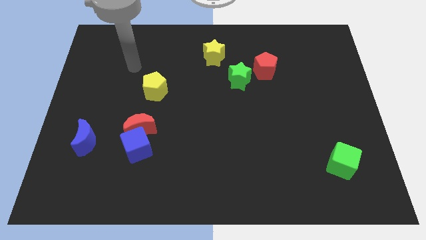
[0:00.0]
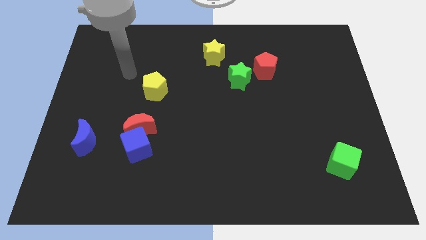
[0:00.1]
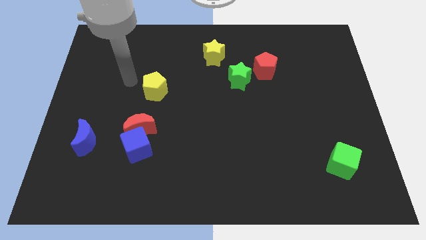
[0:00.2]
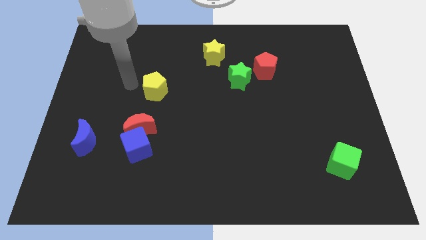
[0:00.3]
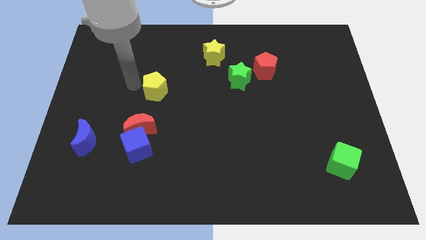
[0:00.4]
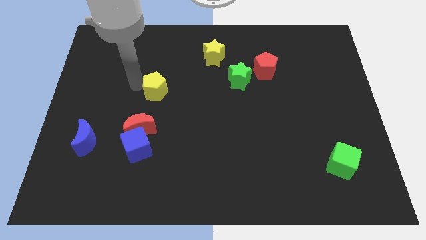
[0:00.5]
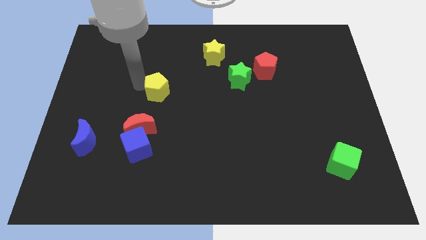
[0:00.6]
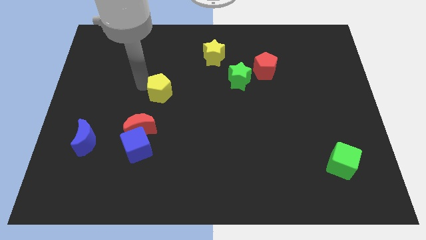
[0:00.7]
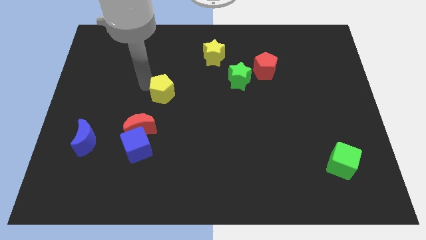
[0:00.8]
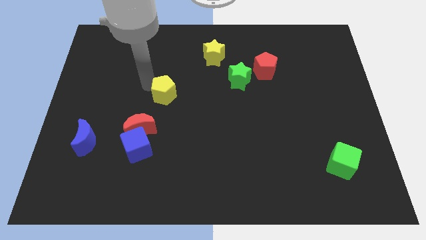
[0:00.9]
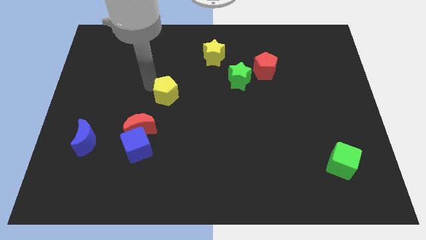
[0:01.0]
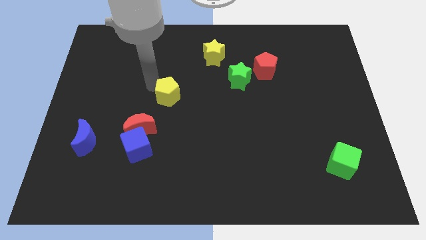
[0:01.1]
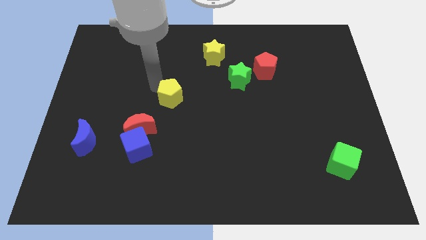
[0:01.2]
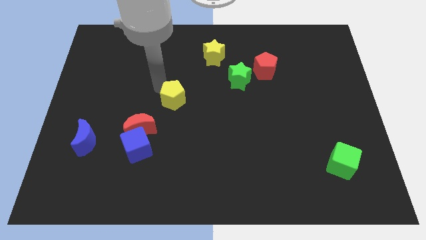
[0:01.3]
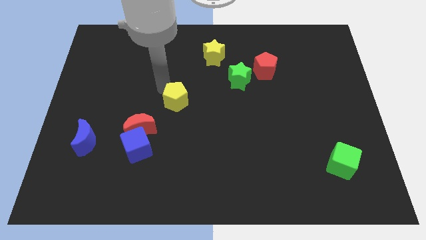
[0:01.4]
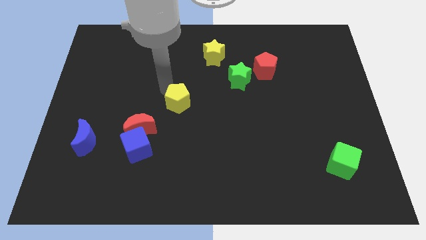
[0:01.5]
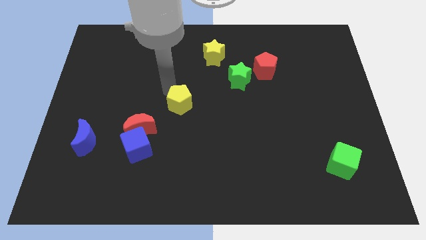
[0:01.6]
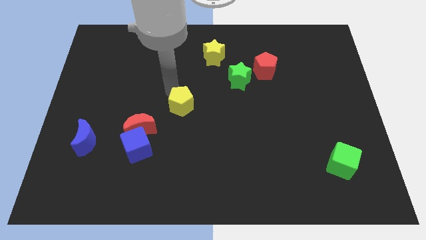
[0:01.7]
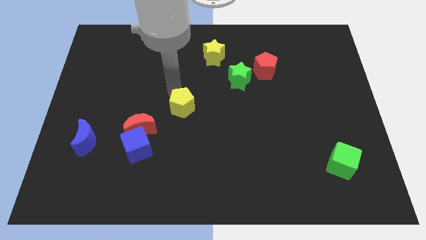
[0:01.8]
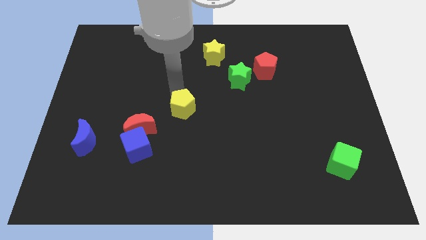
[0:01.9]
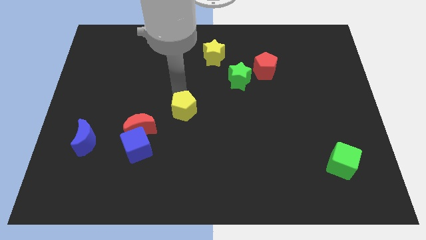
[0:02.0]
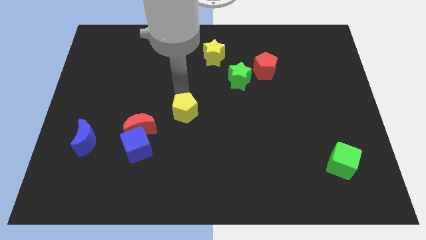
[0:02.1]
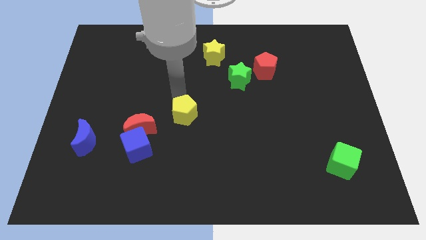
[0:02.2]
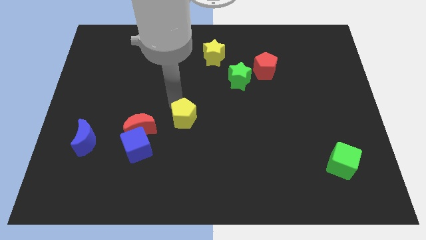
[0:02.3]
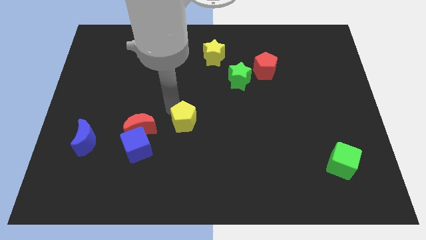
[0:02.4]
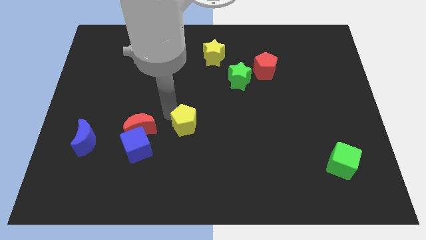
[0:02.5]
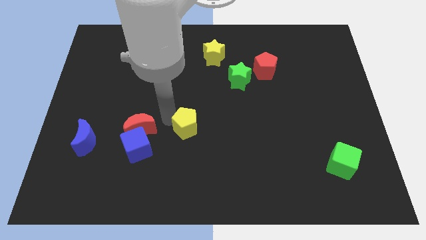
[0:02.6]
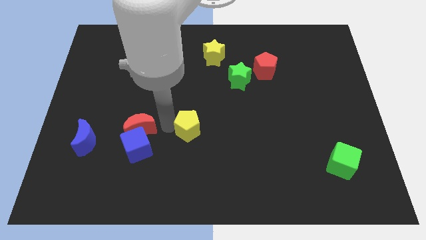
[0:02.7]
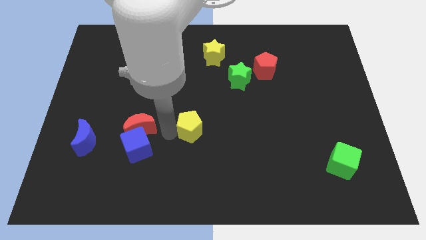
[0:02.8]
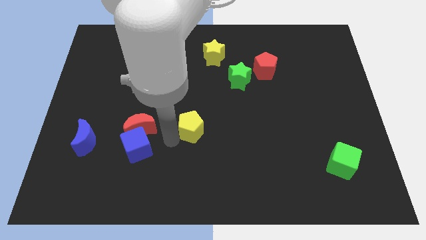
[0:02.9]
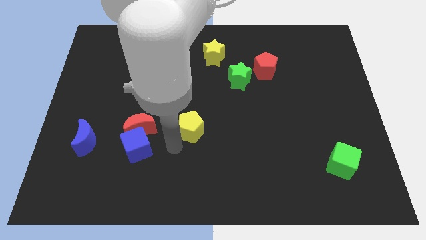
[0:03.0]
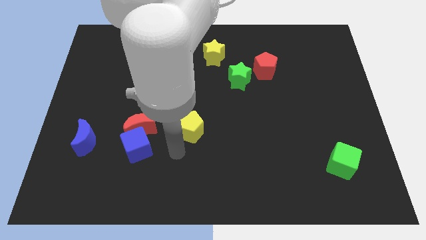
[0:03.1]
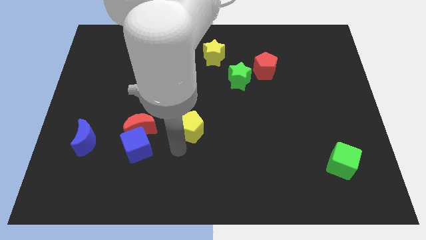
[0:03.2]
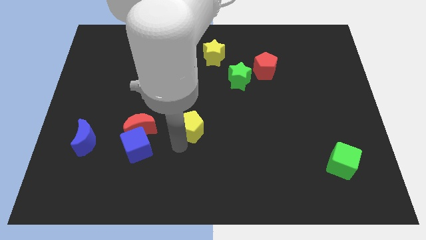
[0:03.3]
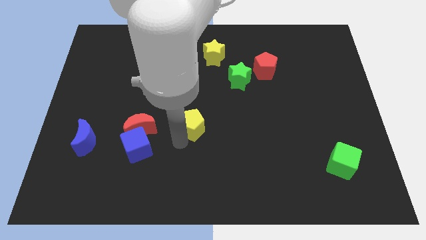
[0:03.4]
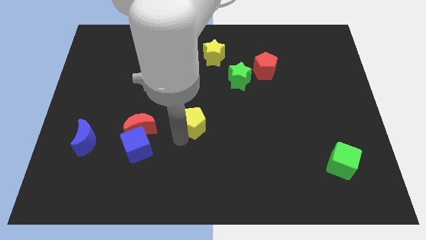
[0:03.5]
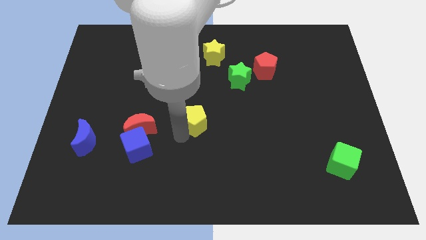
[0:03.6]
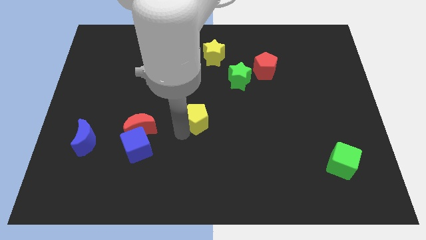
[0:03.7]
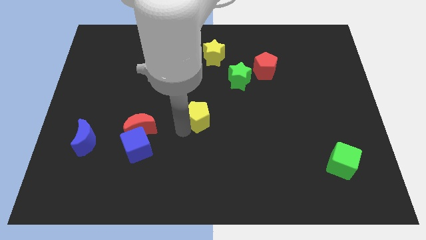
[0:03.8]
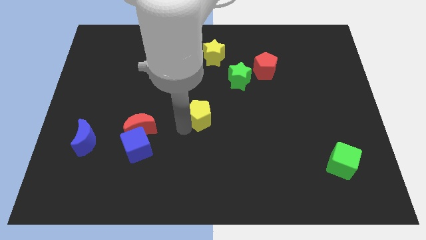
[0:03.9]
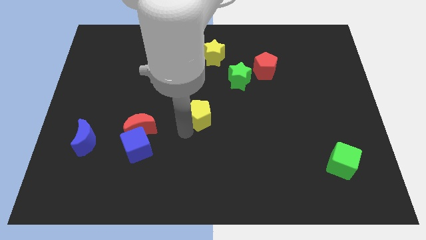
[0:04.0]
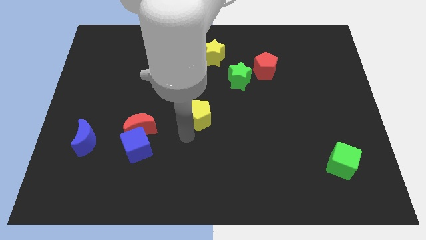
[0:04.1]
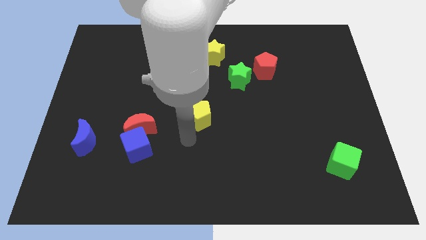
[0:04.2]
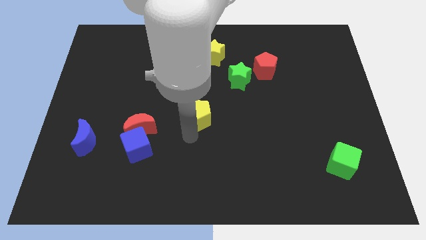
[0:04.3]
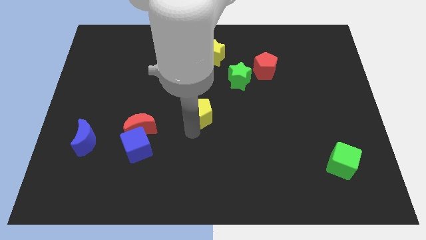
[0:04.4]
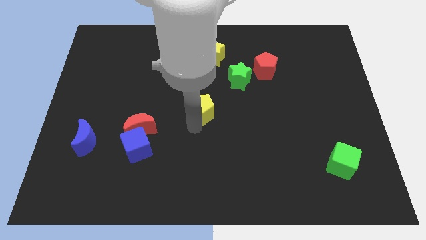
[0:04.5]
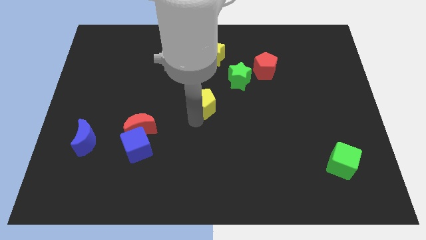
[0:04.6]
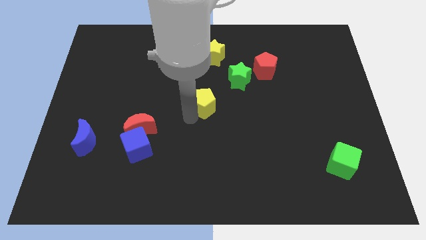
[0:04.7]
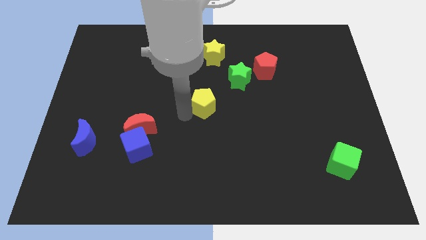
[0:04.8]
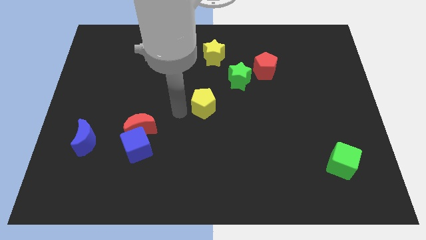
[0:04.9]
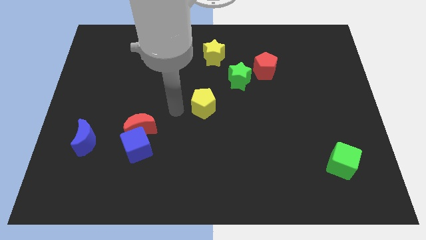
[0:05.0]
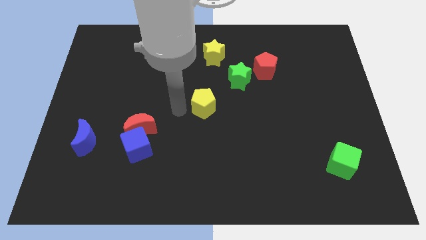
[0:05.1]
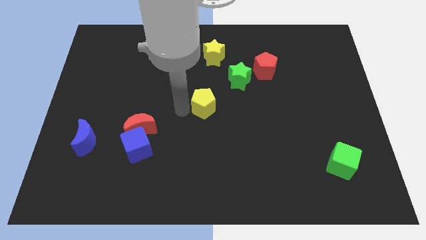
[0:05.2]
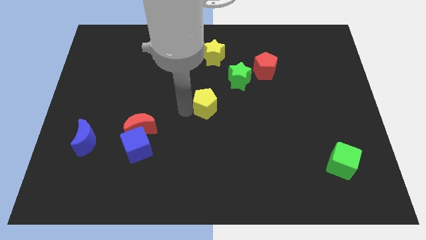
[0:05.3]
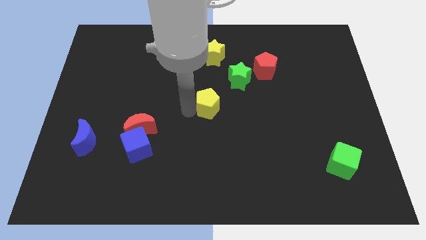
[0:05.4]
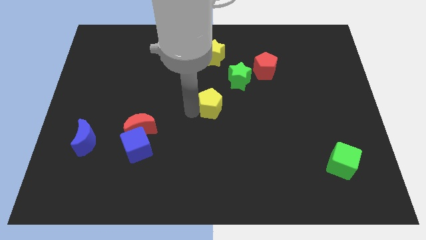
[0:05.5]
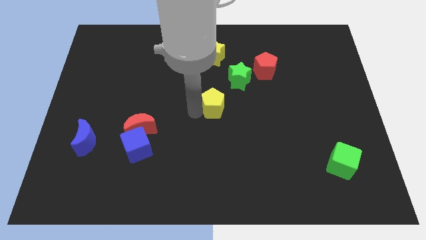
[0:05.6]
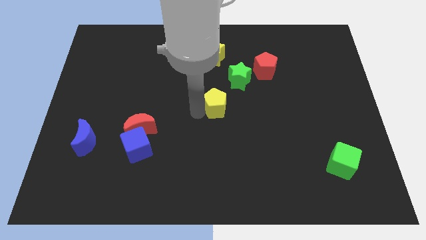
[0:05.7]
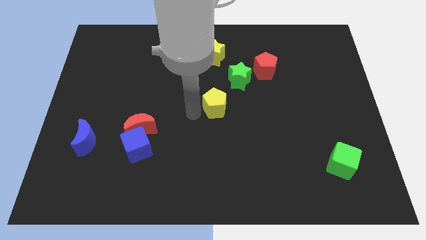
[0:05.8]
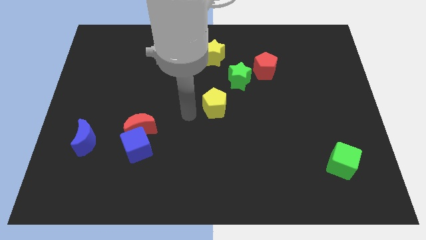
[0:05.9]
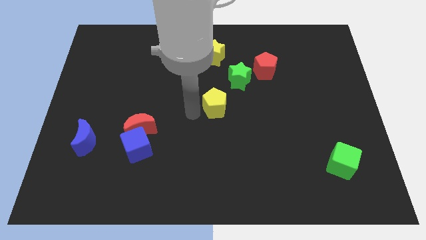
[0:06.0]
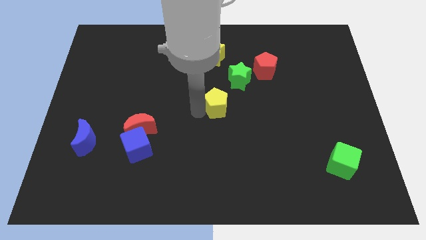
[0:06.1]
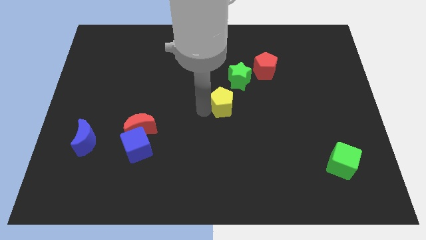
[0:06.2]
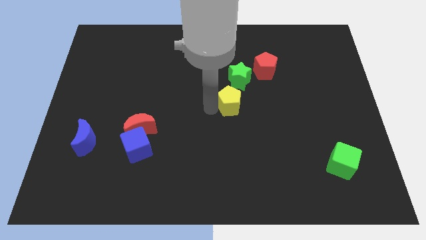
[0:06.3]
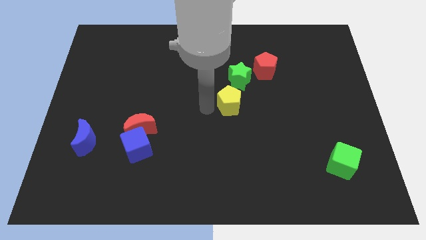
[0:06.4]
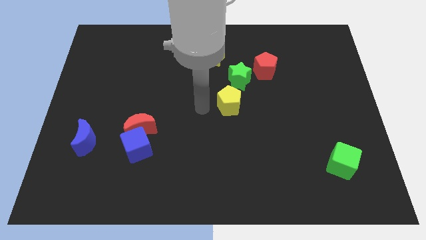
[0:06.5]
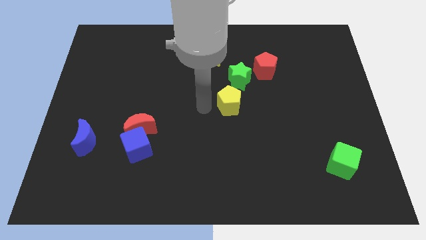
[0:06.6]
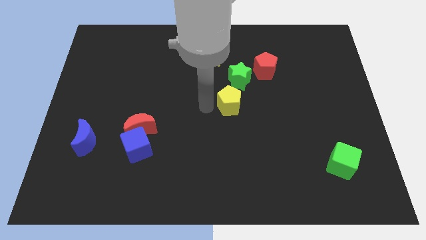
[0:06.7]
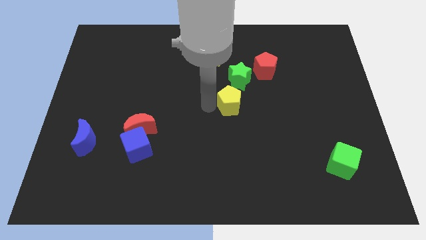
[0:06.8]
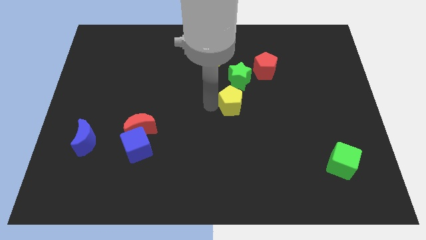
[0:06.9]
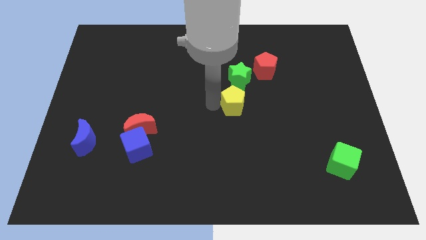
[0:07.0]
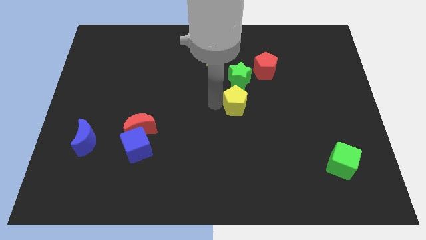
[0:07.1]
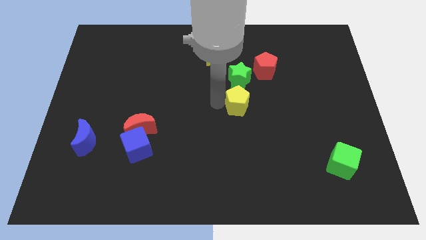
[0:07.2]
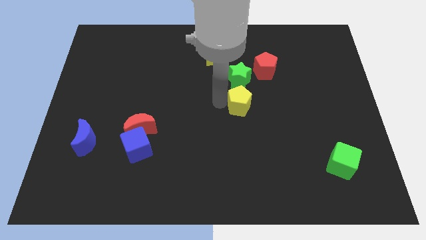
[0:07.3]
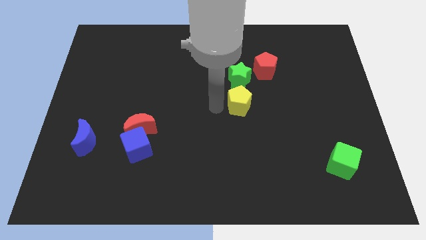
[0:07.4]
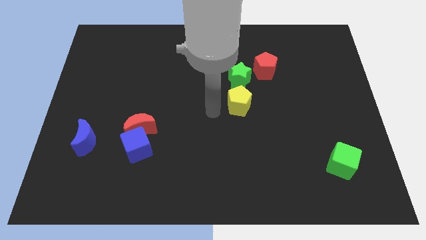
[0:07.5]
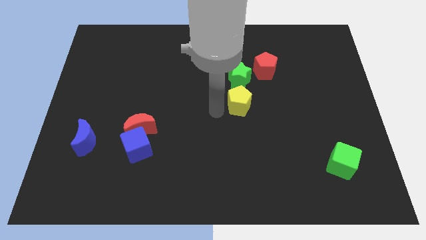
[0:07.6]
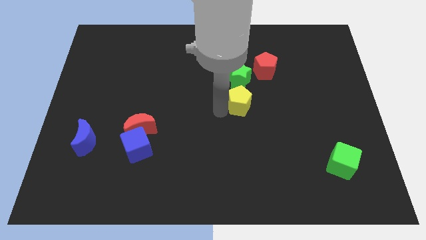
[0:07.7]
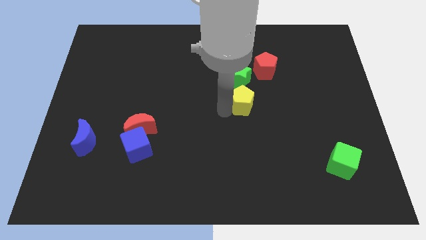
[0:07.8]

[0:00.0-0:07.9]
move the yellow pentagon right

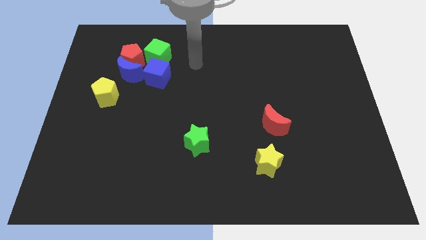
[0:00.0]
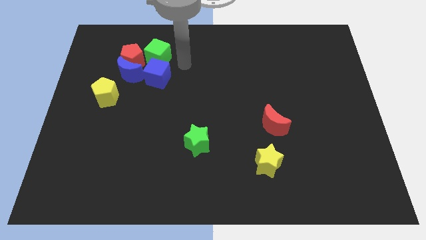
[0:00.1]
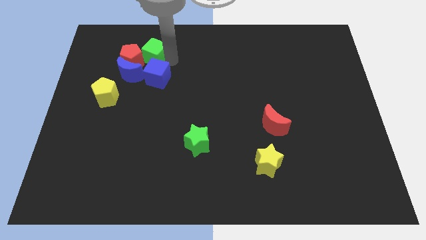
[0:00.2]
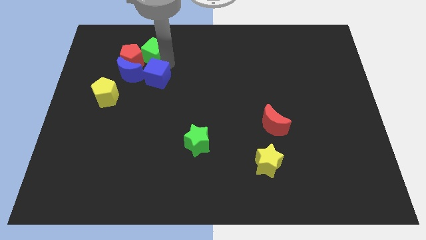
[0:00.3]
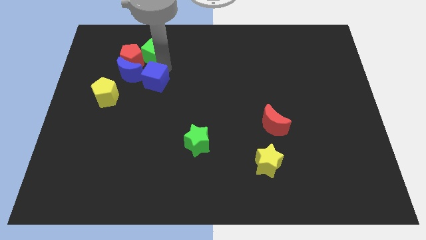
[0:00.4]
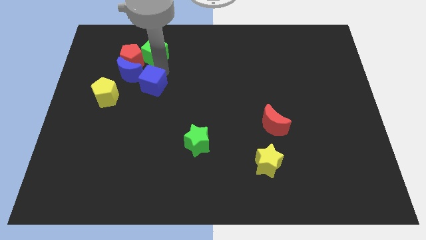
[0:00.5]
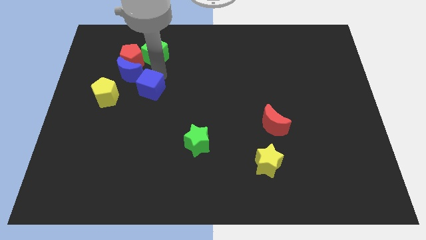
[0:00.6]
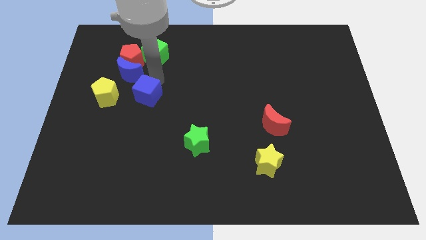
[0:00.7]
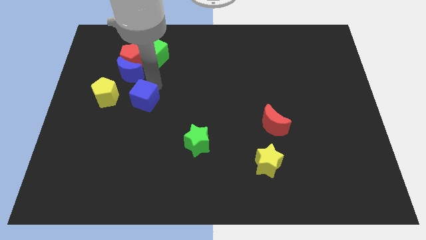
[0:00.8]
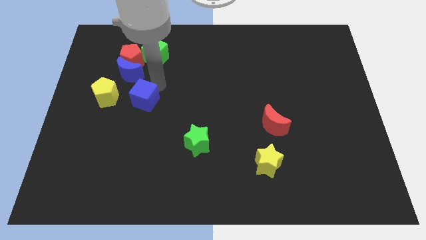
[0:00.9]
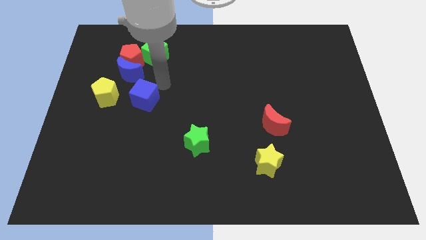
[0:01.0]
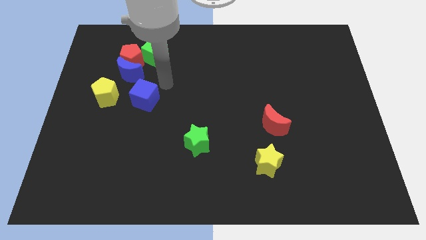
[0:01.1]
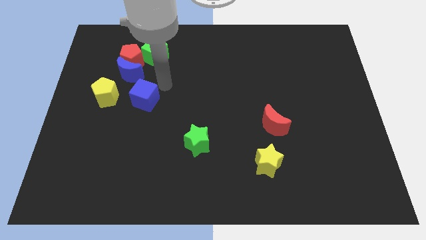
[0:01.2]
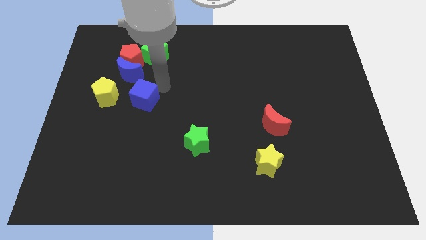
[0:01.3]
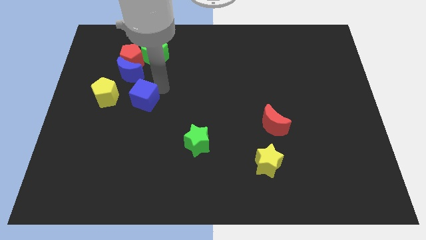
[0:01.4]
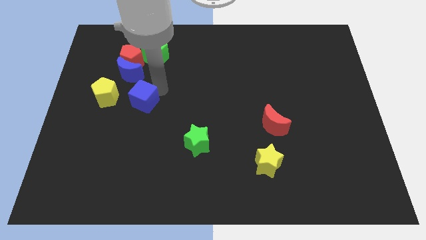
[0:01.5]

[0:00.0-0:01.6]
slide the blue cube down and to the left diagonally a little bit
